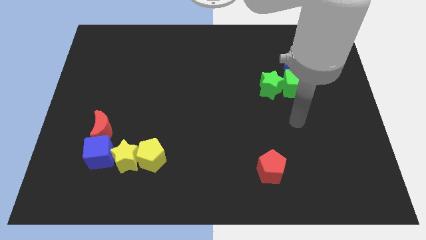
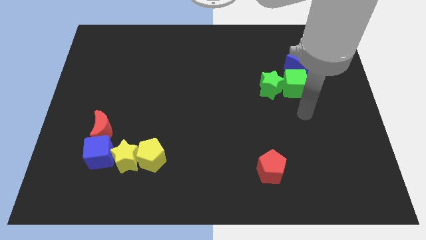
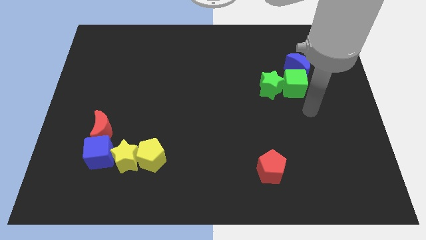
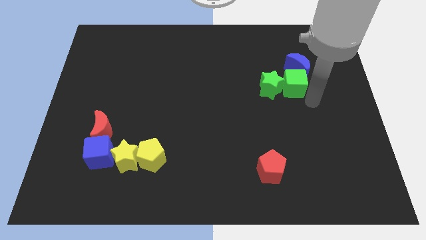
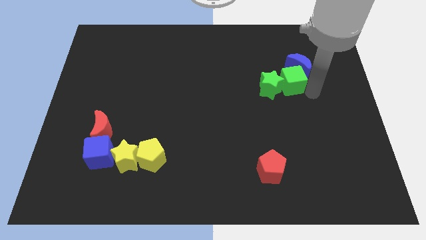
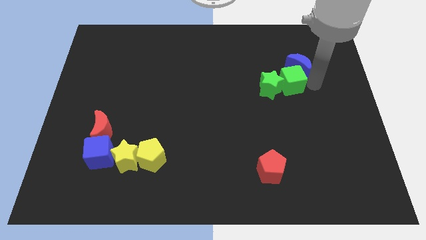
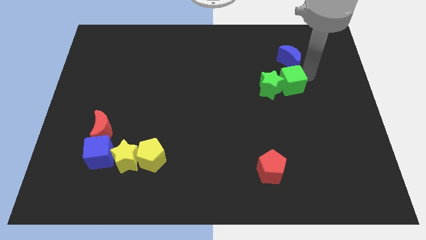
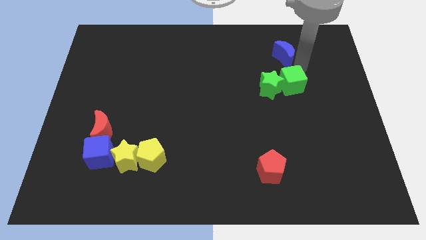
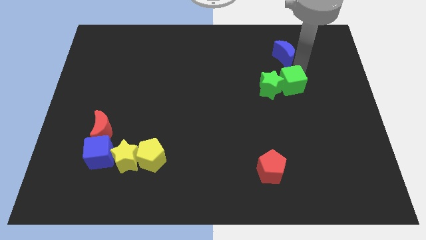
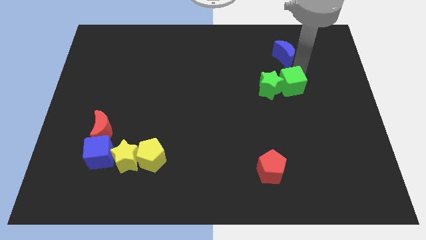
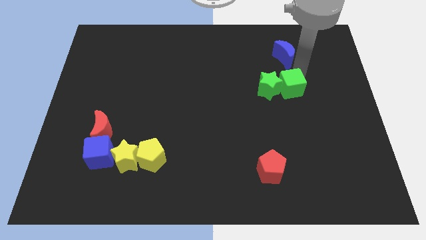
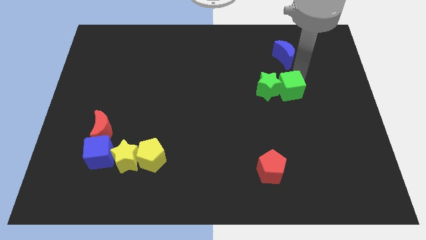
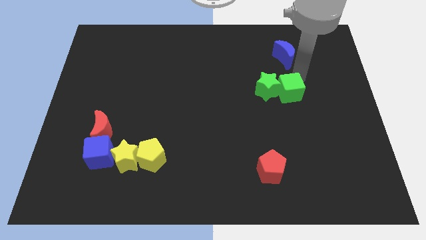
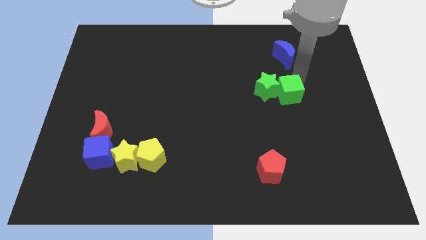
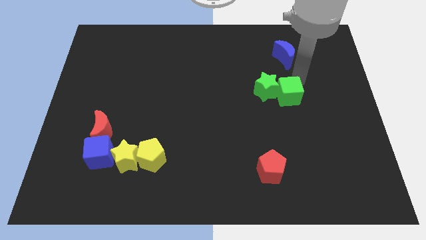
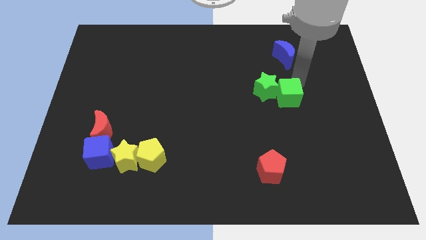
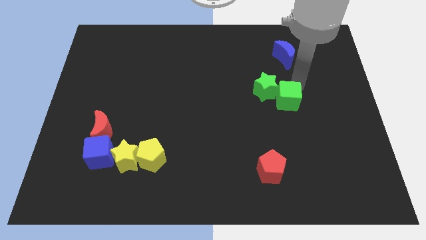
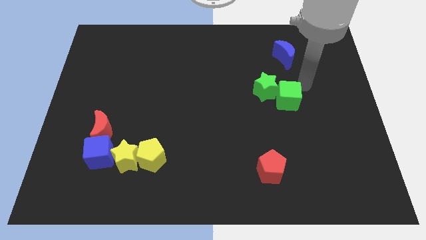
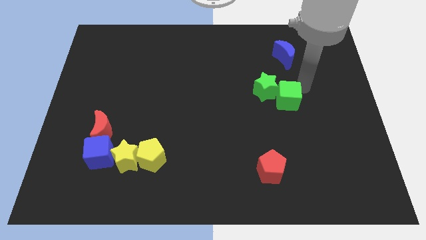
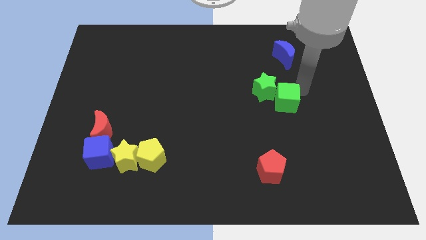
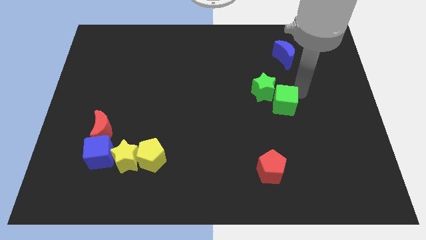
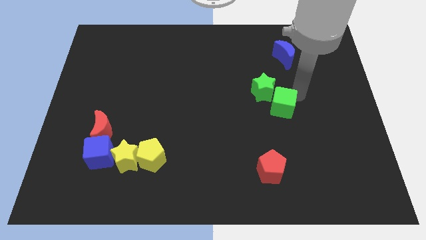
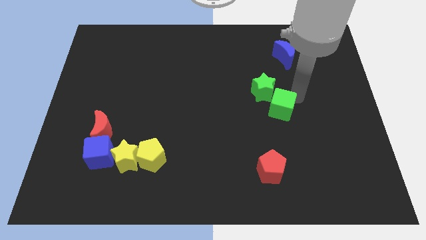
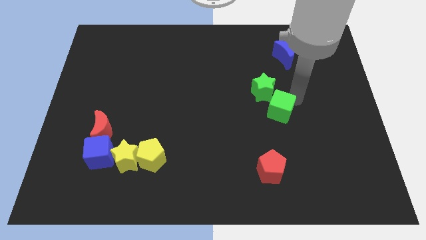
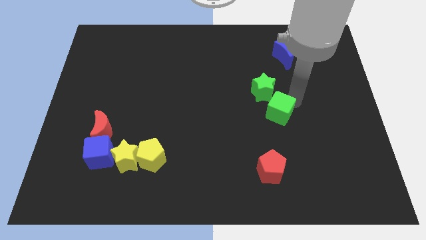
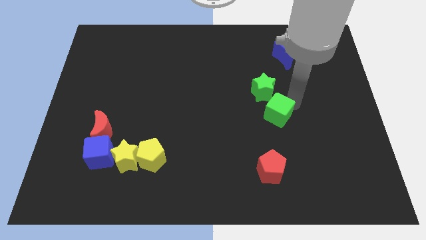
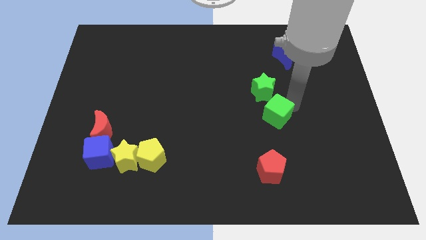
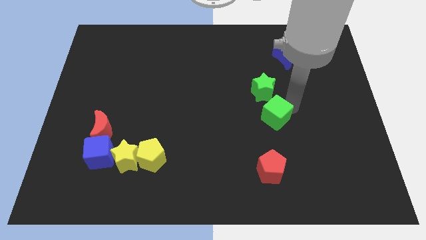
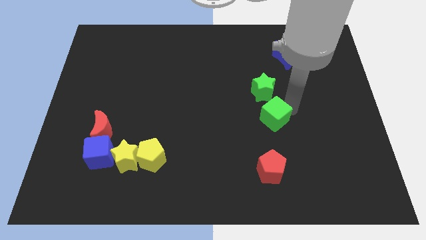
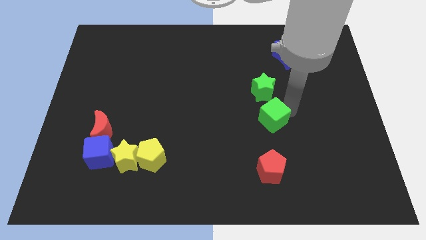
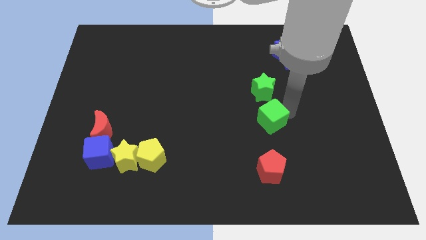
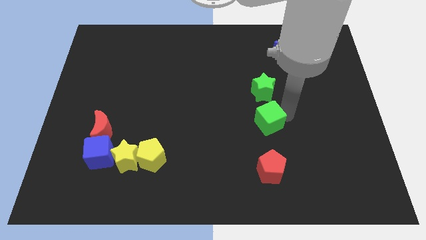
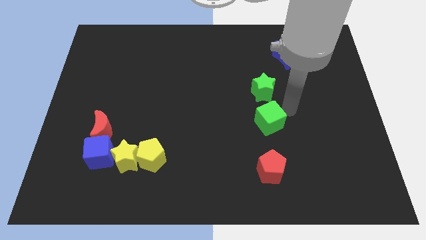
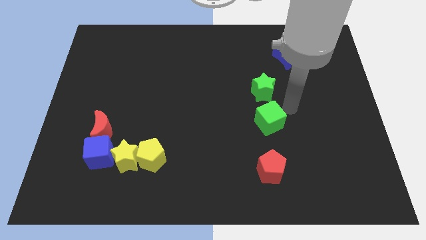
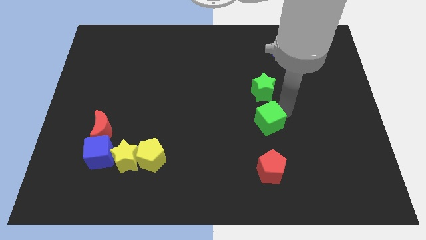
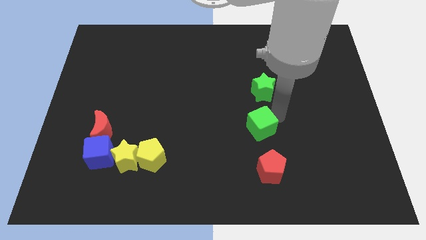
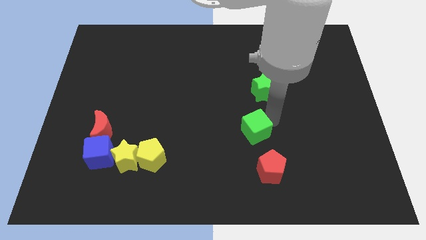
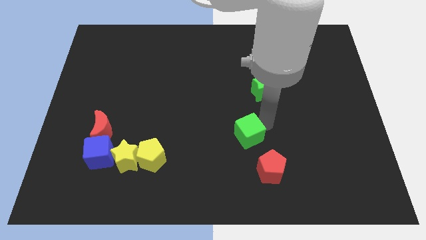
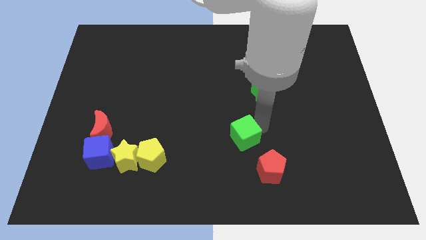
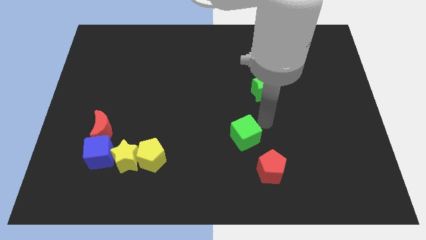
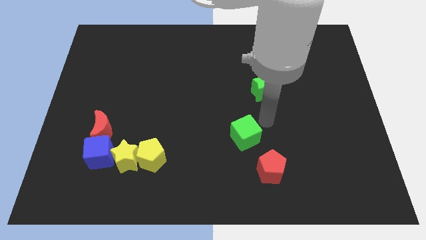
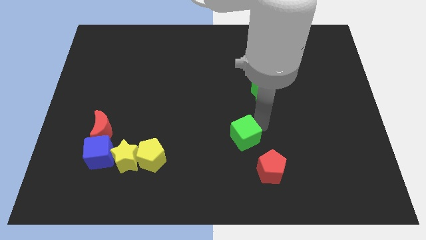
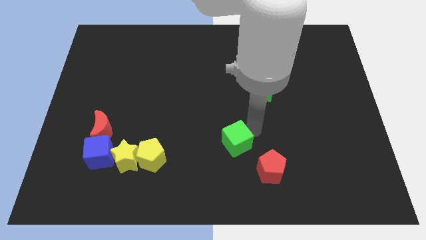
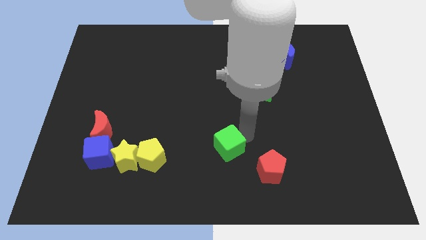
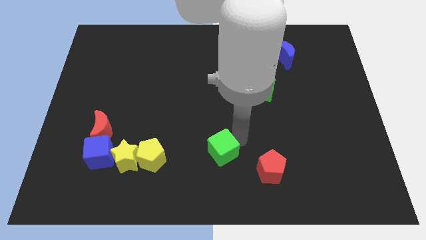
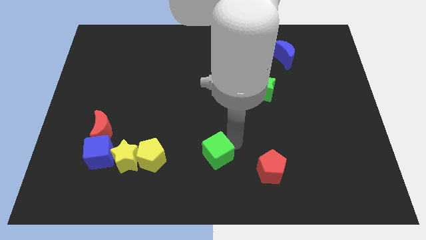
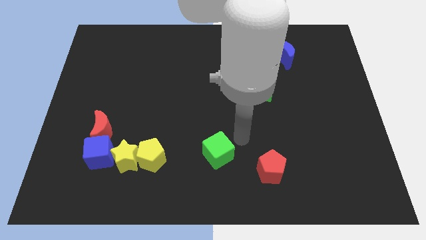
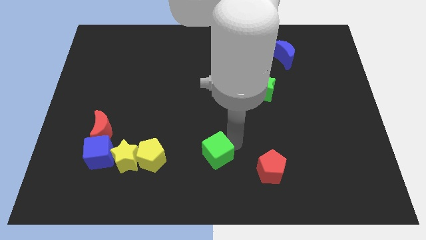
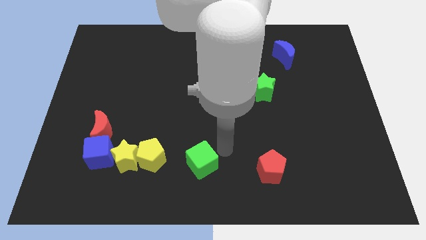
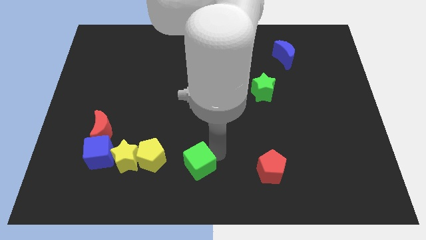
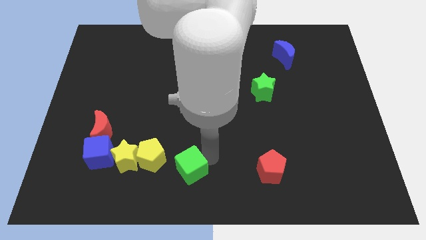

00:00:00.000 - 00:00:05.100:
put the green cube to the bottom right of the yellow pentagon

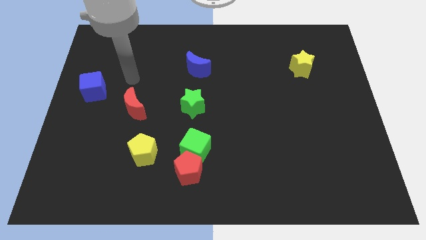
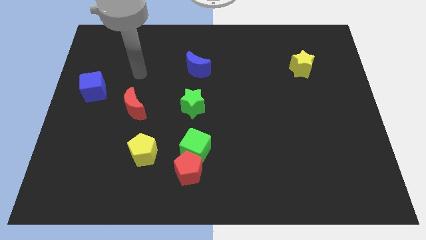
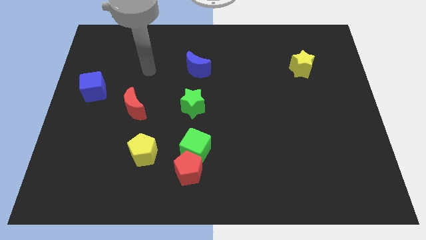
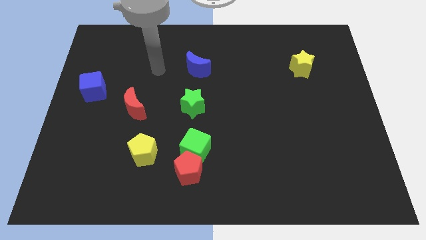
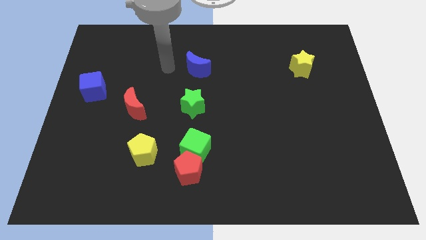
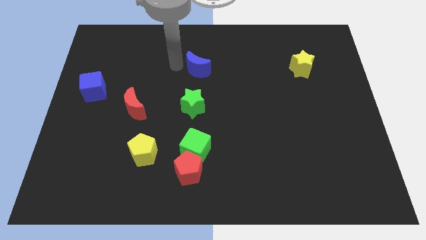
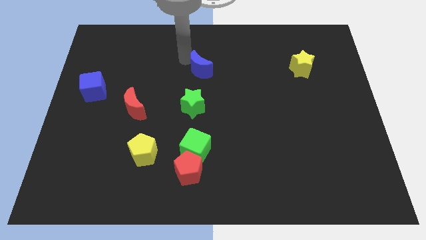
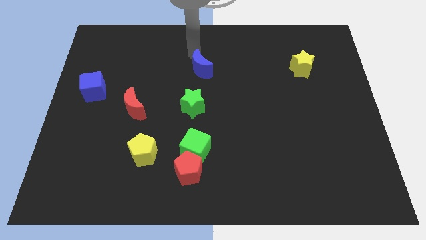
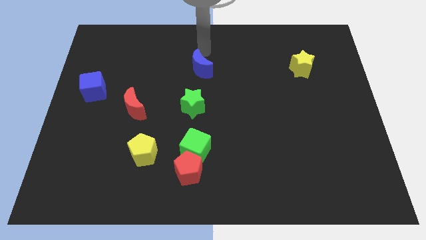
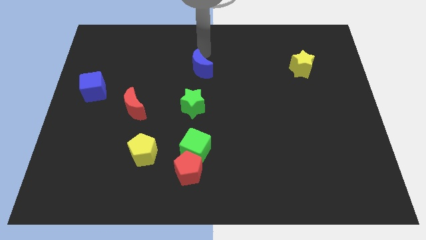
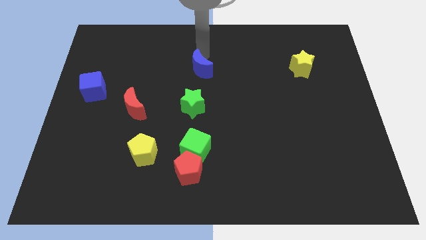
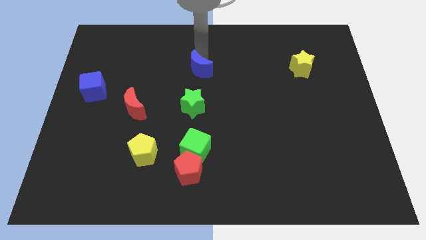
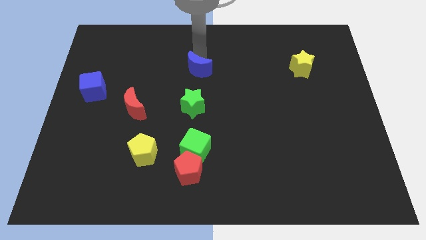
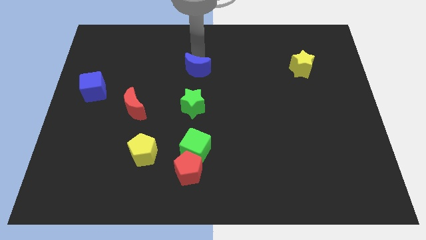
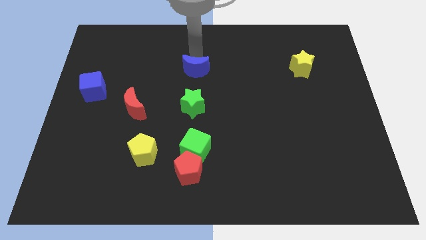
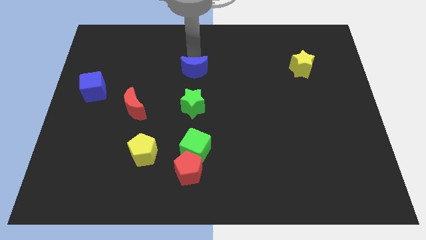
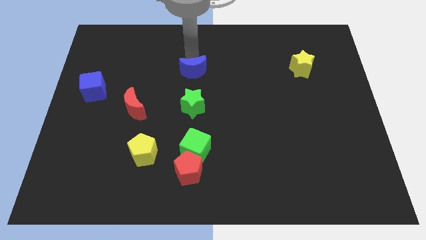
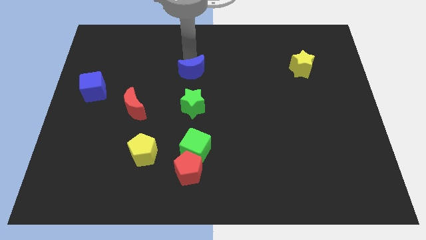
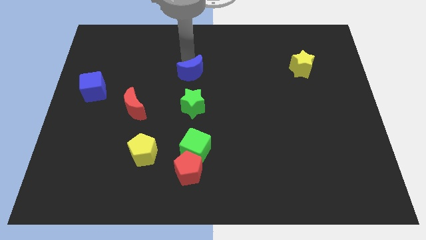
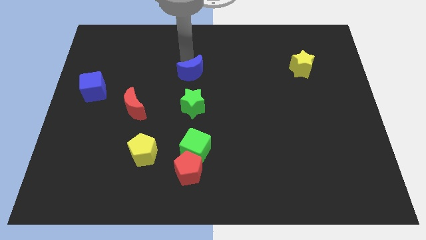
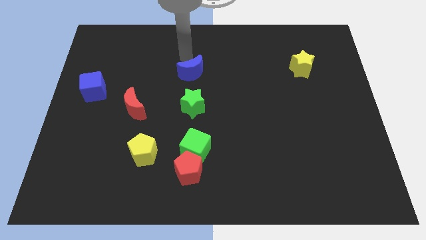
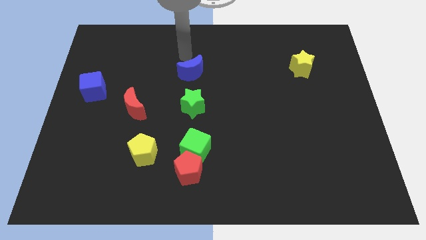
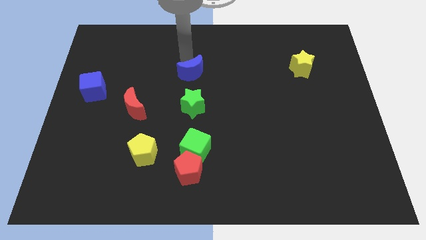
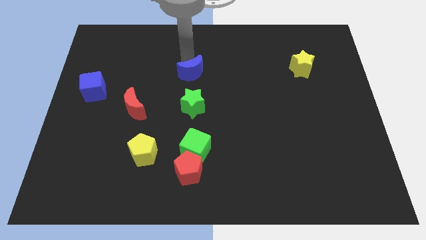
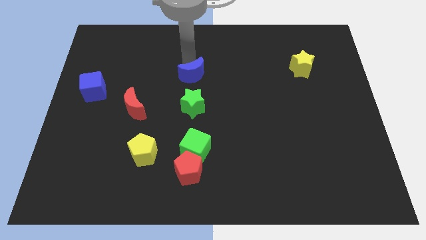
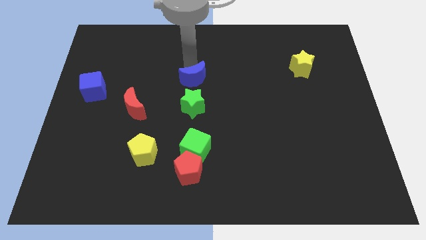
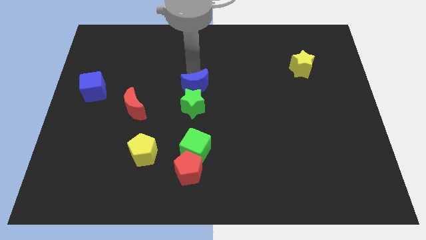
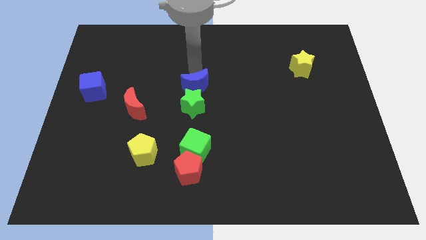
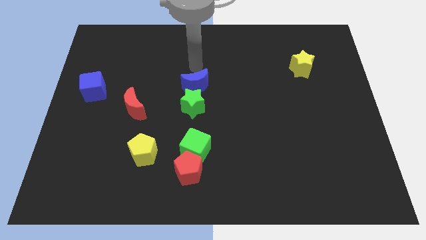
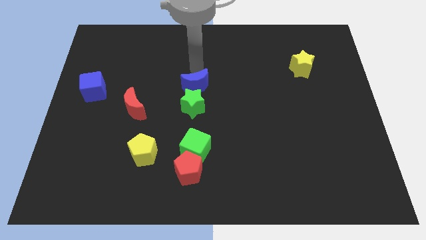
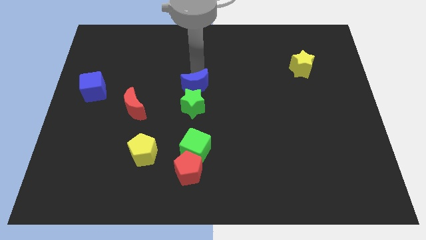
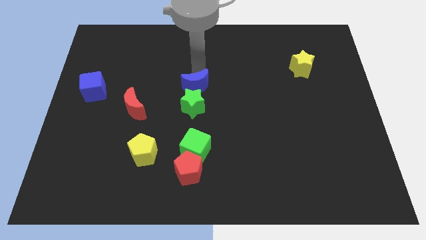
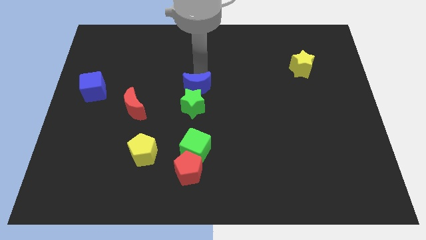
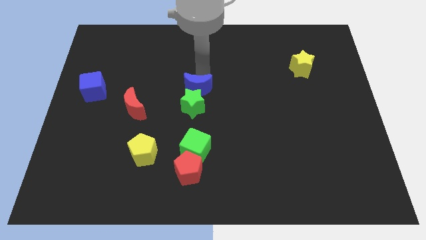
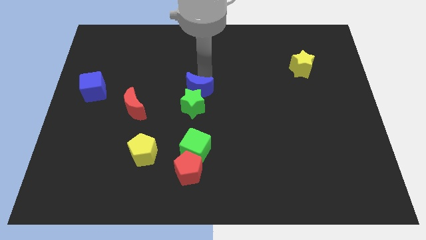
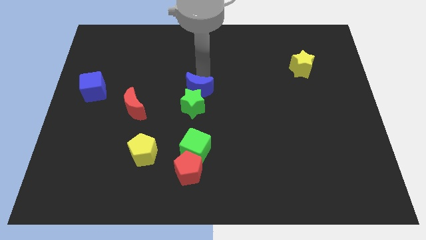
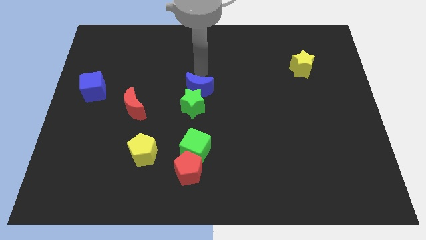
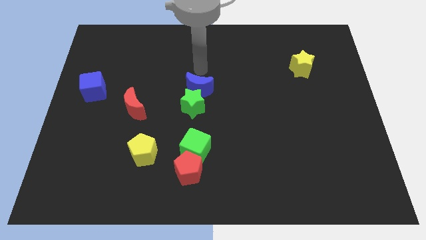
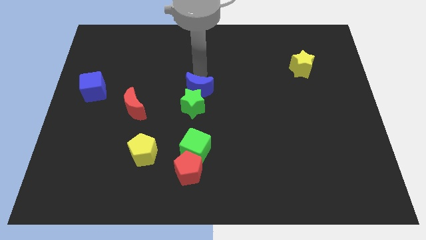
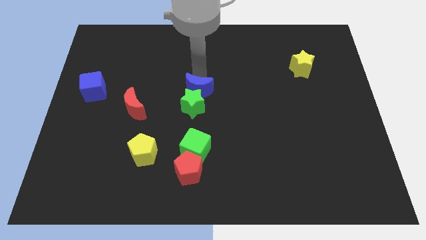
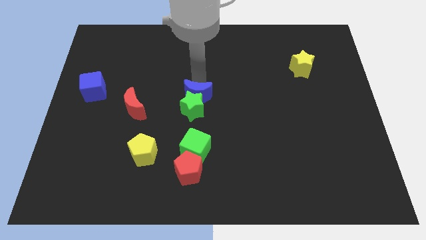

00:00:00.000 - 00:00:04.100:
slide the blue moon to the top of the green cube
